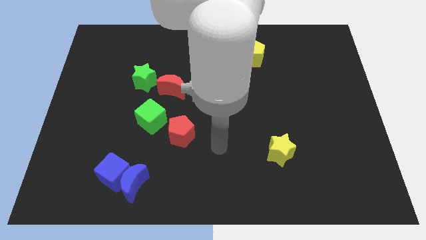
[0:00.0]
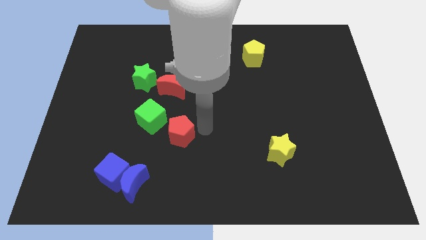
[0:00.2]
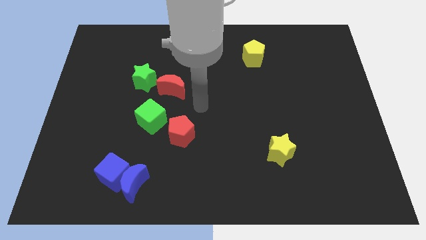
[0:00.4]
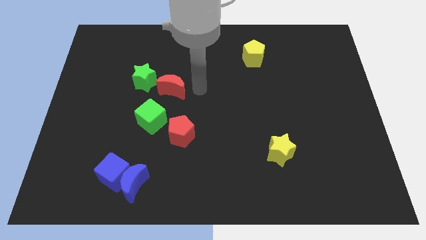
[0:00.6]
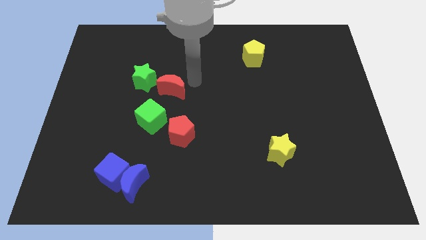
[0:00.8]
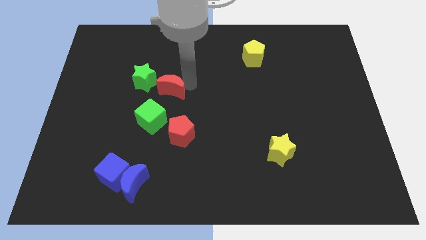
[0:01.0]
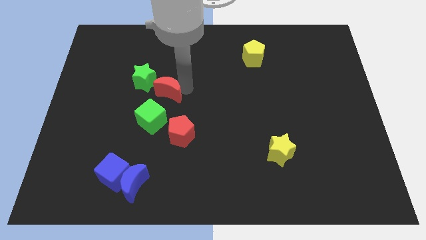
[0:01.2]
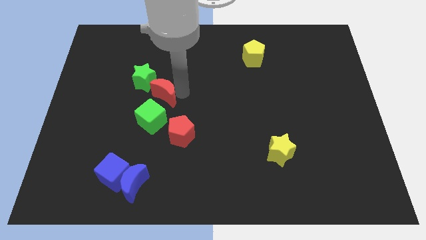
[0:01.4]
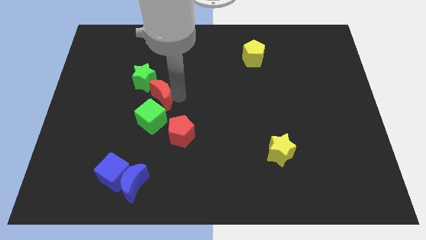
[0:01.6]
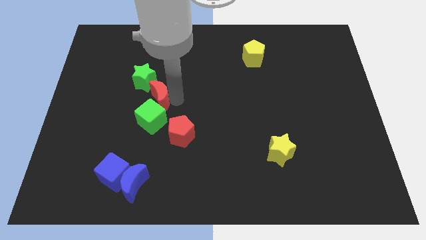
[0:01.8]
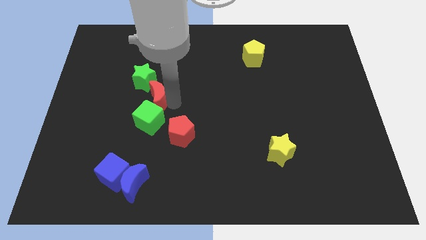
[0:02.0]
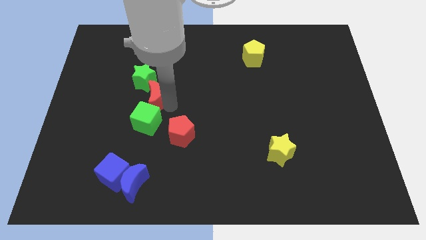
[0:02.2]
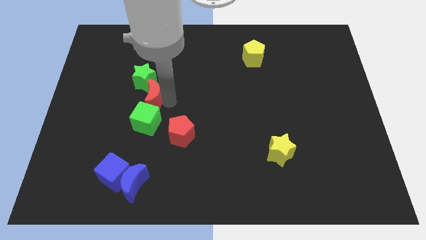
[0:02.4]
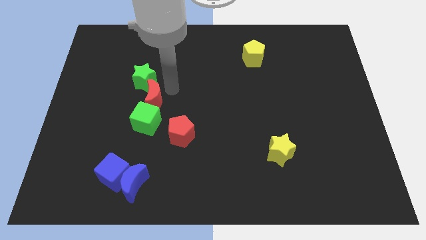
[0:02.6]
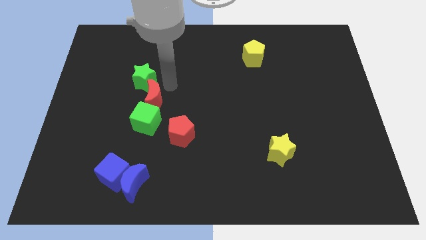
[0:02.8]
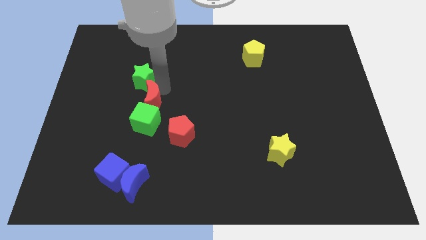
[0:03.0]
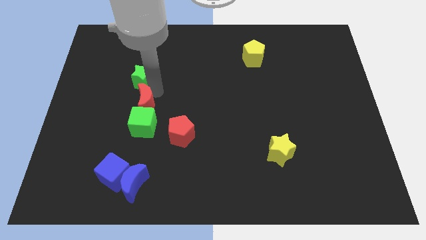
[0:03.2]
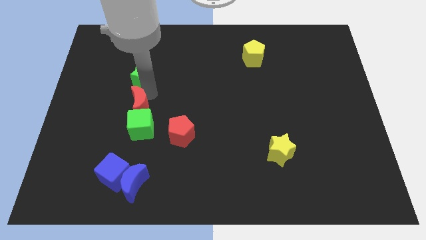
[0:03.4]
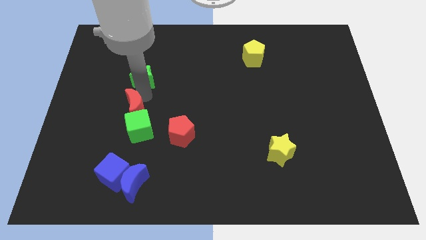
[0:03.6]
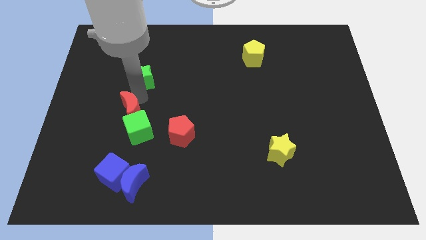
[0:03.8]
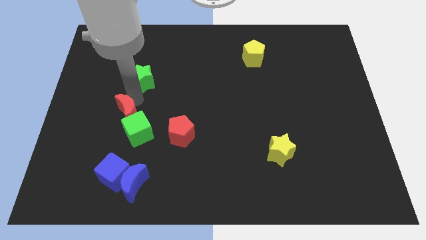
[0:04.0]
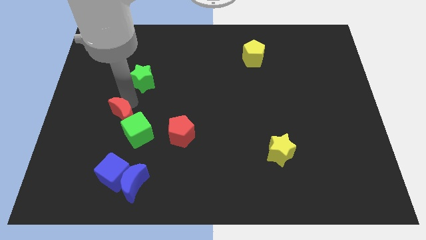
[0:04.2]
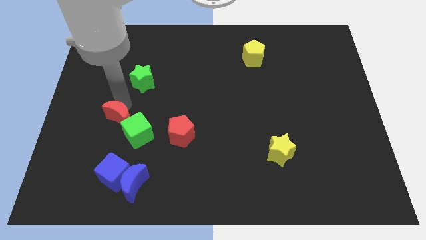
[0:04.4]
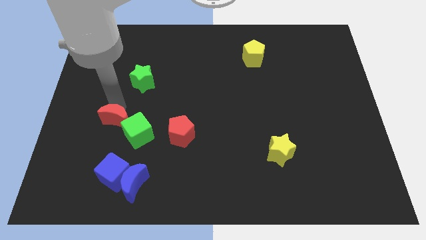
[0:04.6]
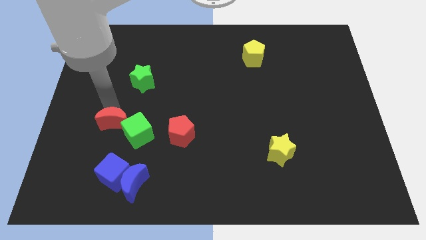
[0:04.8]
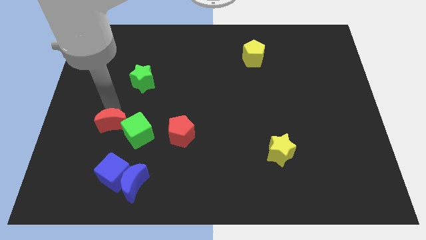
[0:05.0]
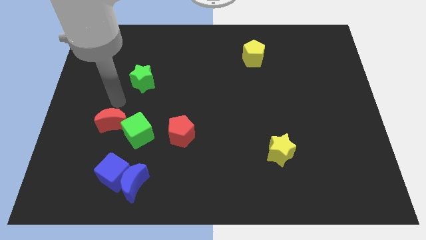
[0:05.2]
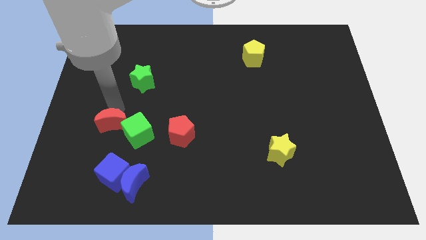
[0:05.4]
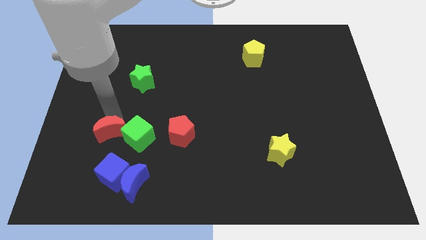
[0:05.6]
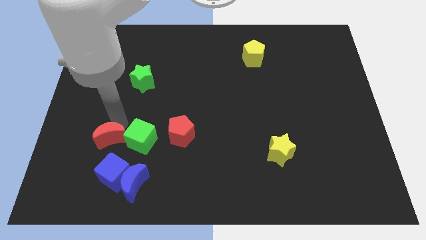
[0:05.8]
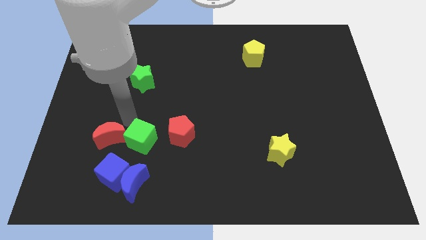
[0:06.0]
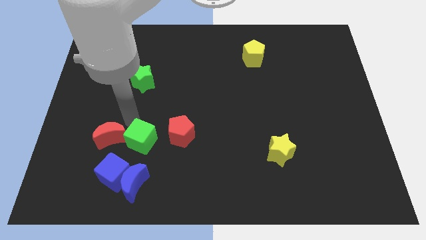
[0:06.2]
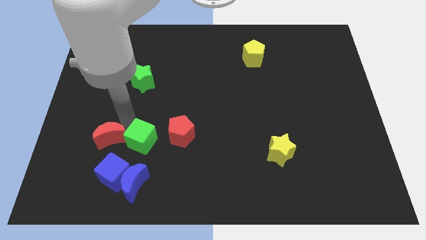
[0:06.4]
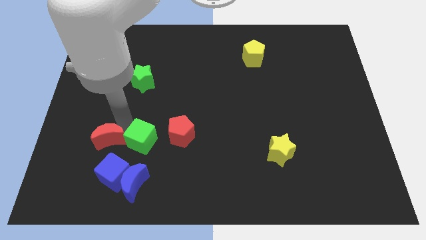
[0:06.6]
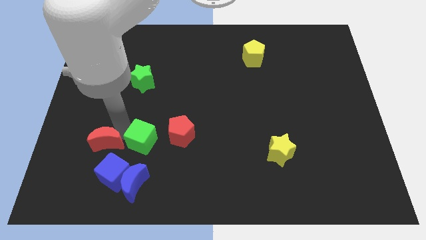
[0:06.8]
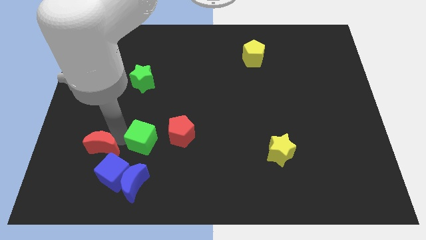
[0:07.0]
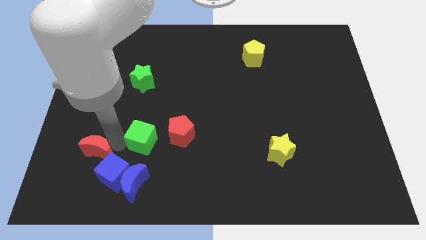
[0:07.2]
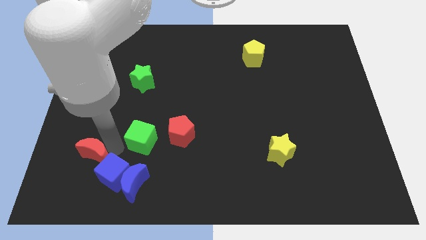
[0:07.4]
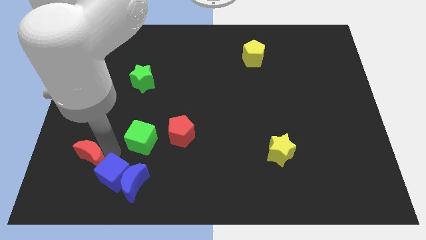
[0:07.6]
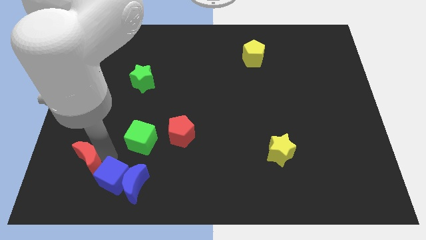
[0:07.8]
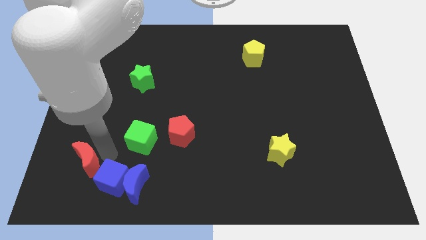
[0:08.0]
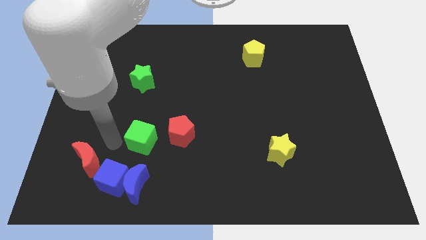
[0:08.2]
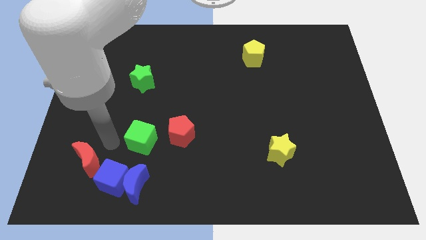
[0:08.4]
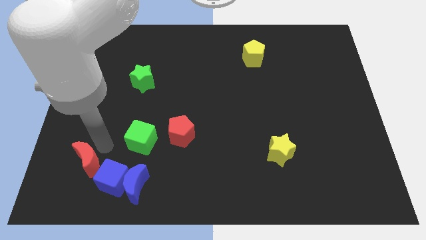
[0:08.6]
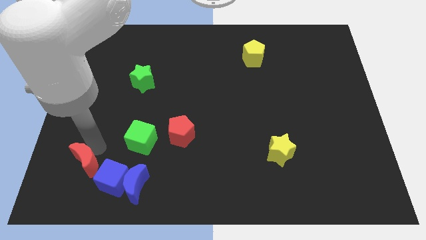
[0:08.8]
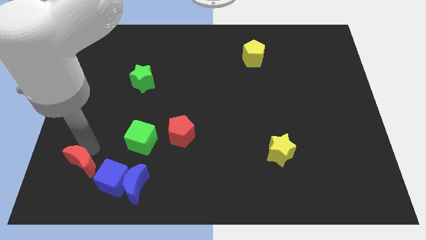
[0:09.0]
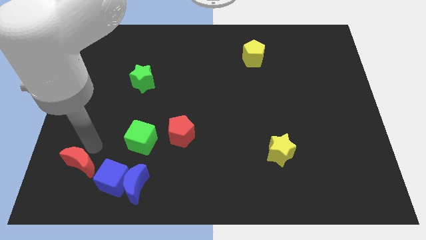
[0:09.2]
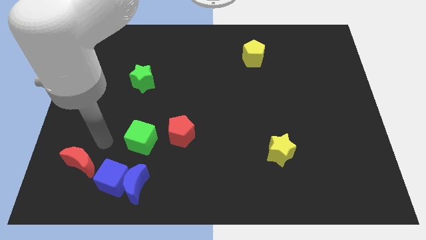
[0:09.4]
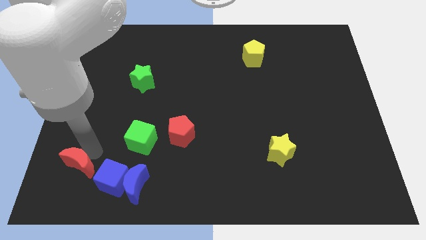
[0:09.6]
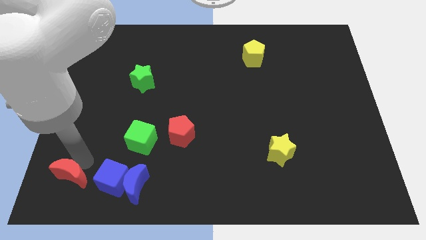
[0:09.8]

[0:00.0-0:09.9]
put the red moon to the bottom left

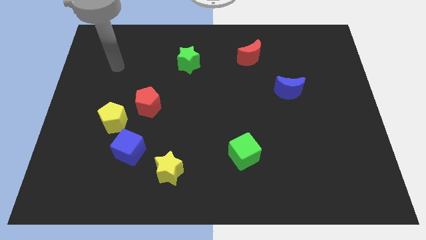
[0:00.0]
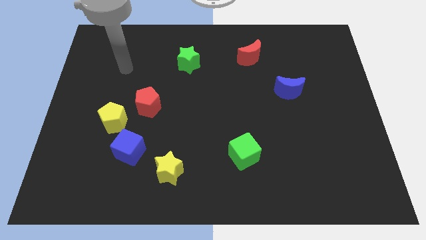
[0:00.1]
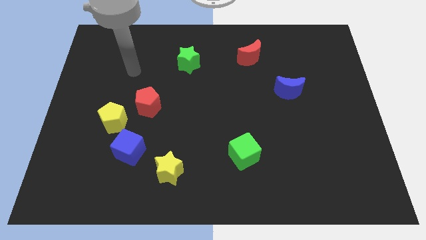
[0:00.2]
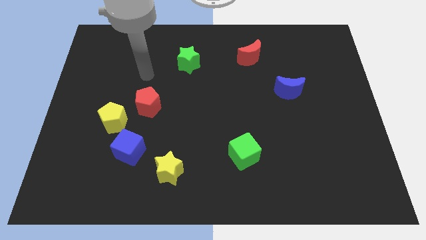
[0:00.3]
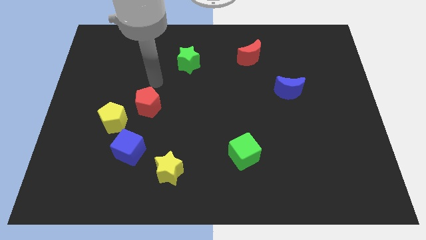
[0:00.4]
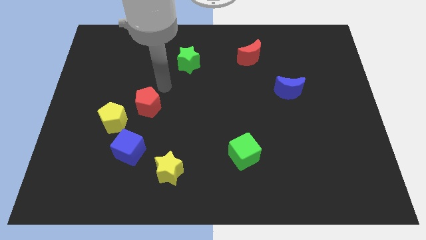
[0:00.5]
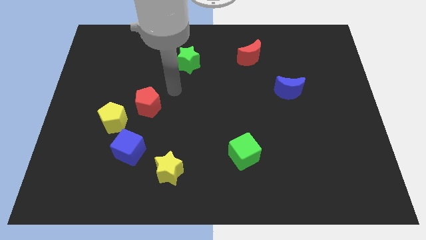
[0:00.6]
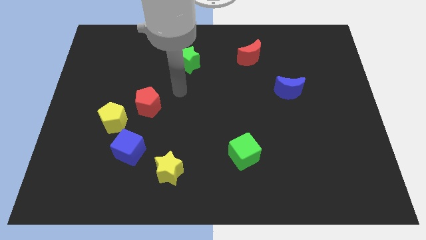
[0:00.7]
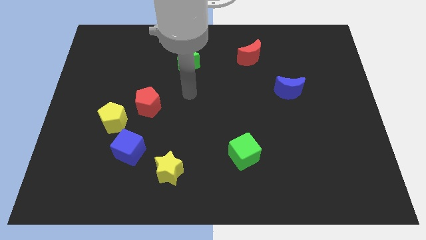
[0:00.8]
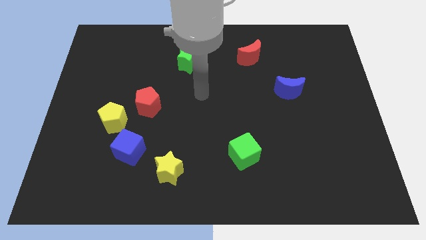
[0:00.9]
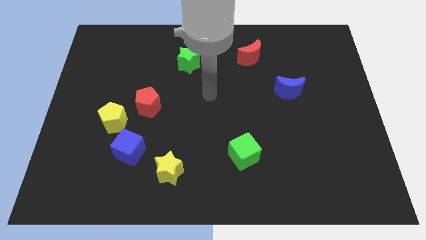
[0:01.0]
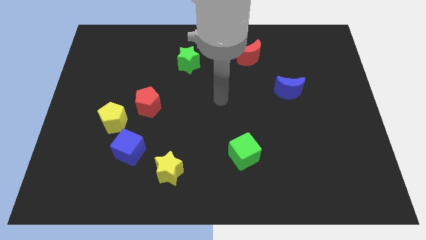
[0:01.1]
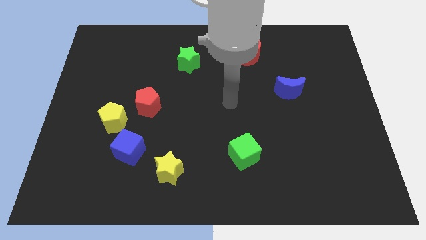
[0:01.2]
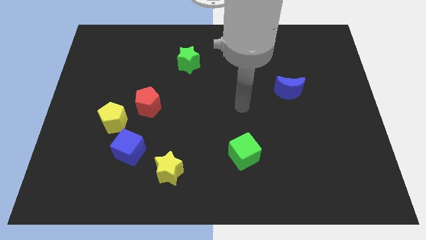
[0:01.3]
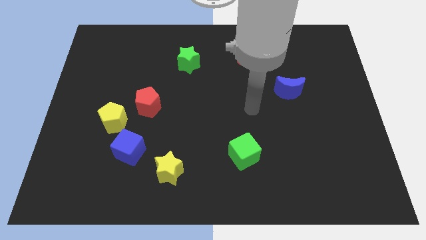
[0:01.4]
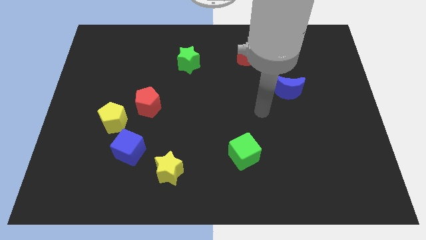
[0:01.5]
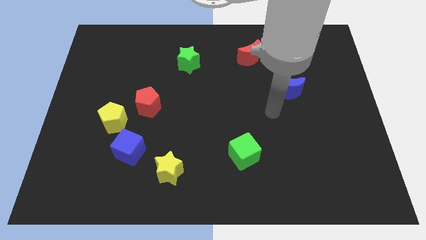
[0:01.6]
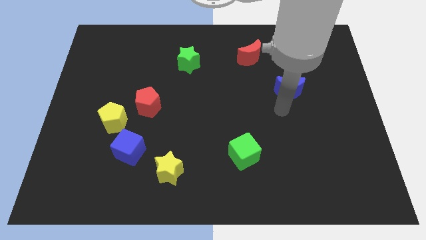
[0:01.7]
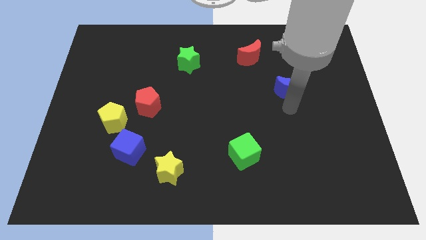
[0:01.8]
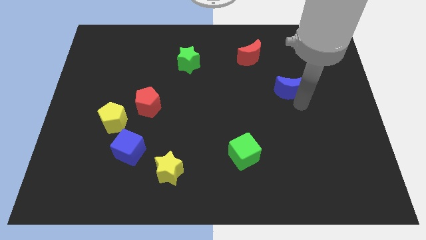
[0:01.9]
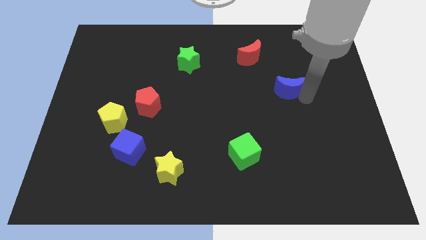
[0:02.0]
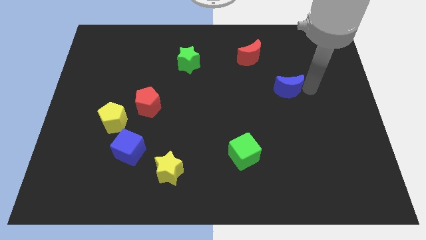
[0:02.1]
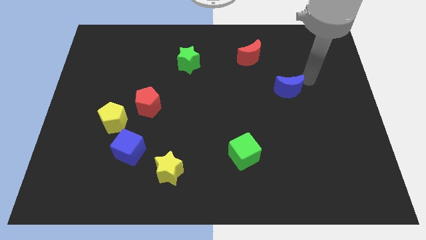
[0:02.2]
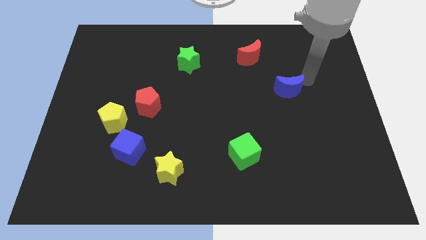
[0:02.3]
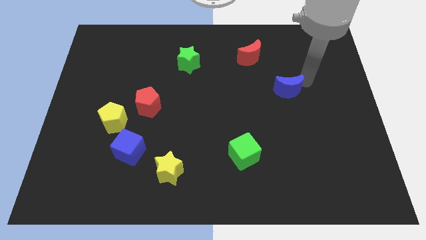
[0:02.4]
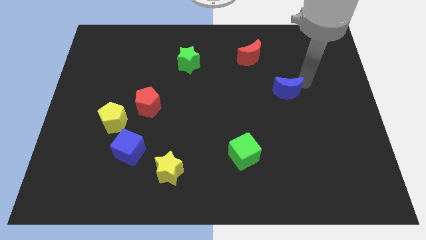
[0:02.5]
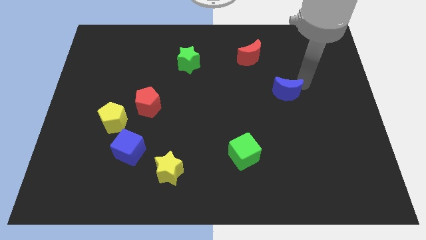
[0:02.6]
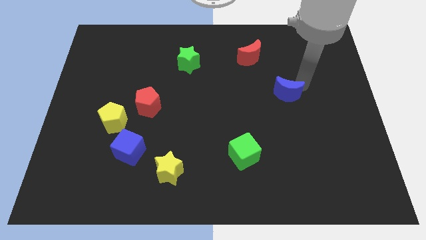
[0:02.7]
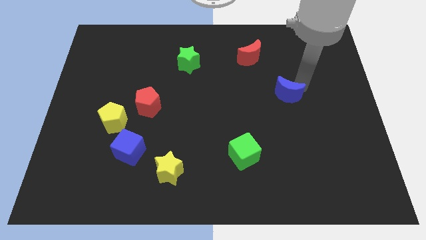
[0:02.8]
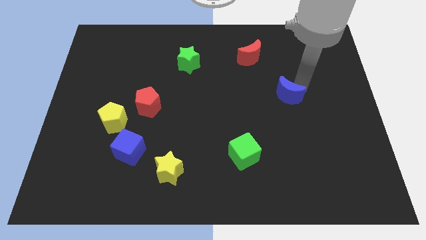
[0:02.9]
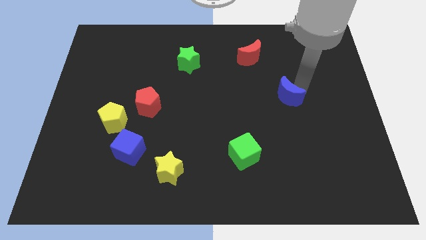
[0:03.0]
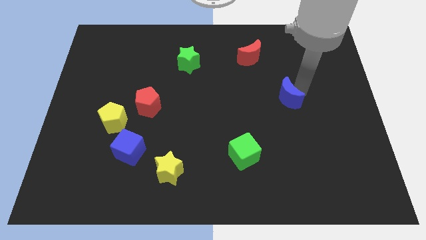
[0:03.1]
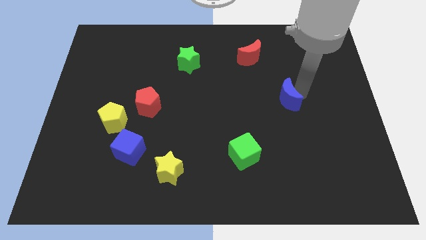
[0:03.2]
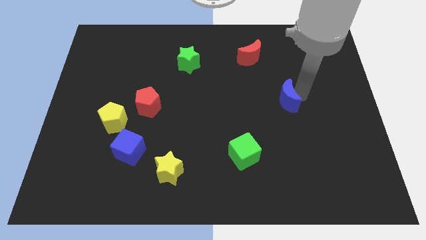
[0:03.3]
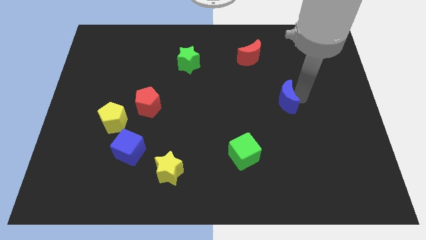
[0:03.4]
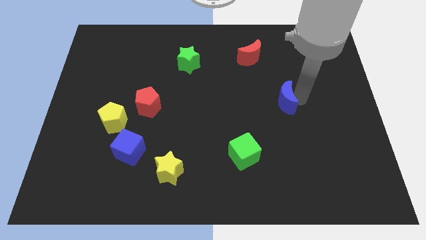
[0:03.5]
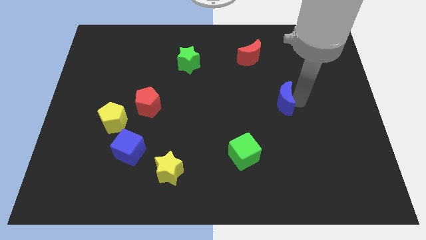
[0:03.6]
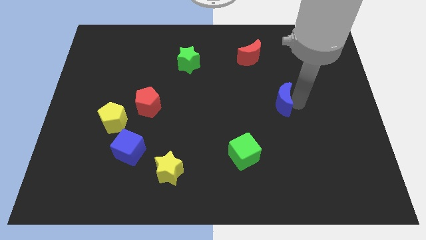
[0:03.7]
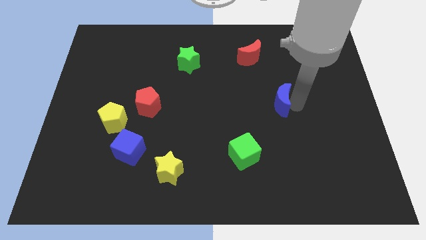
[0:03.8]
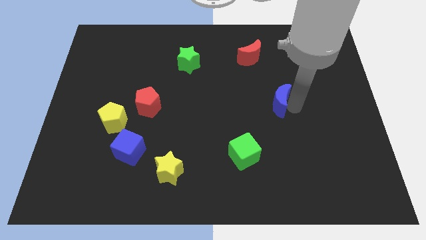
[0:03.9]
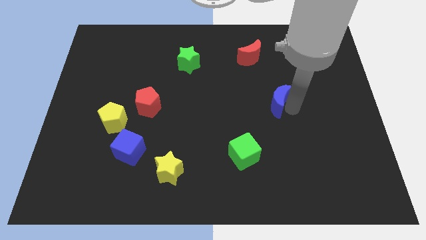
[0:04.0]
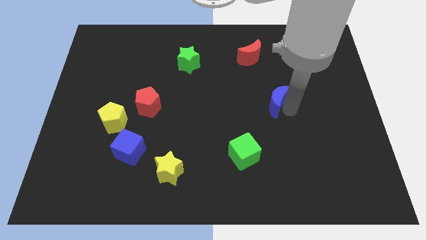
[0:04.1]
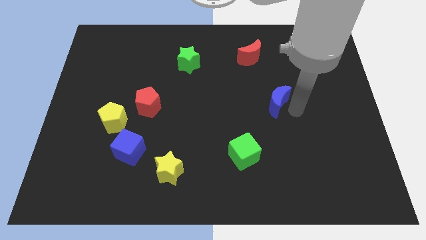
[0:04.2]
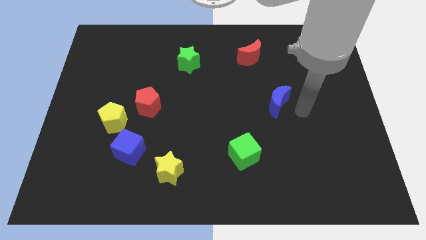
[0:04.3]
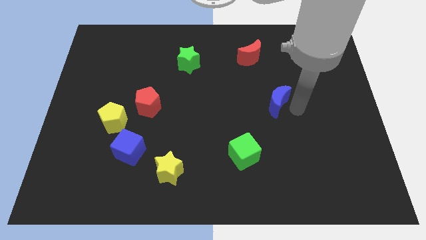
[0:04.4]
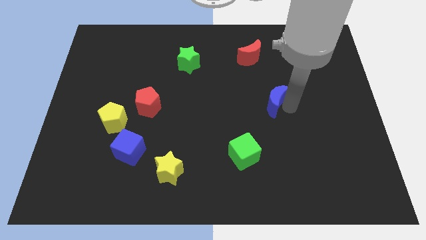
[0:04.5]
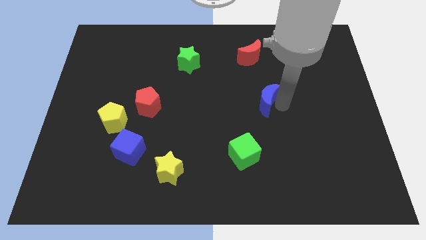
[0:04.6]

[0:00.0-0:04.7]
move the blue moon to the center
